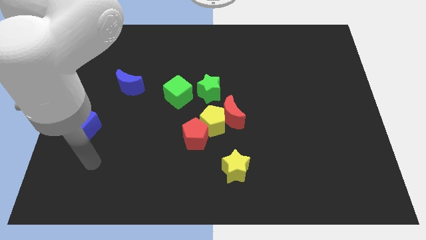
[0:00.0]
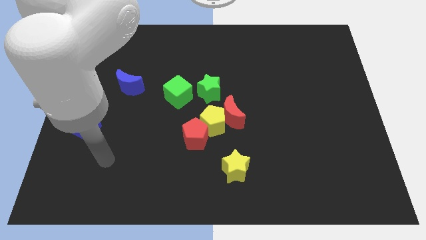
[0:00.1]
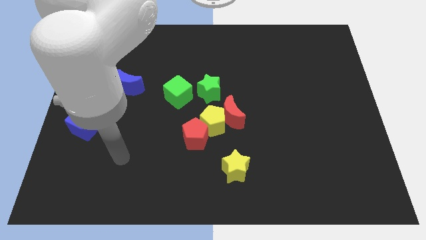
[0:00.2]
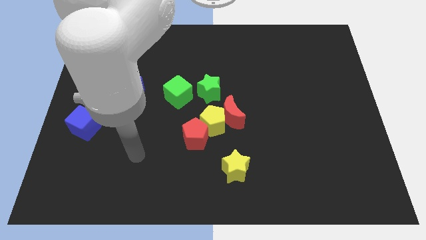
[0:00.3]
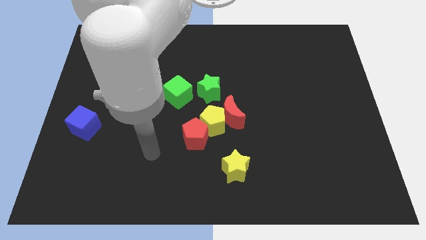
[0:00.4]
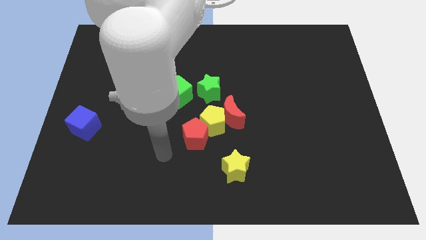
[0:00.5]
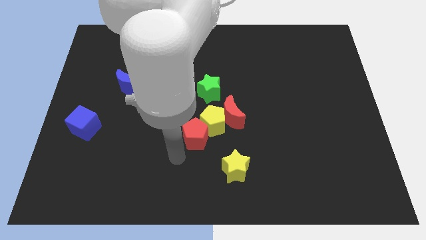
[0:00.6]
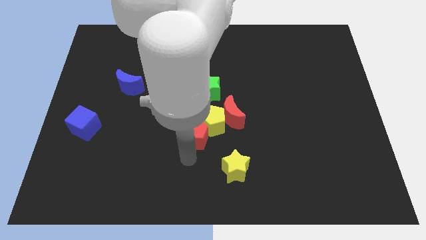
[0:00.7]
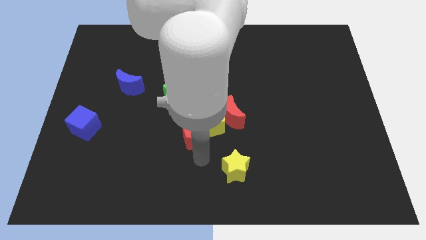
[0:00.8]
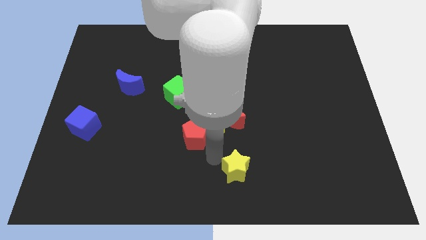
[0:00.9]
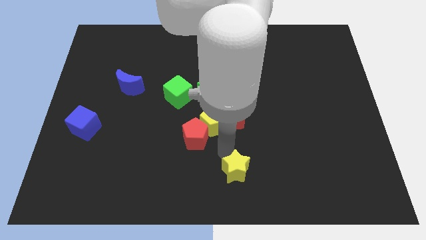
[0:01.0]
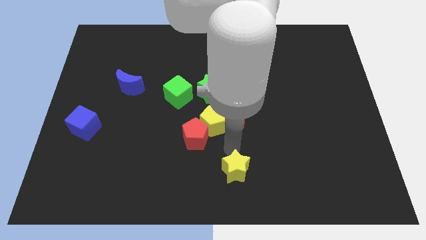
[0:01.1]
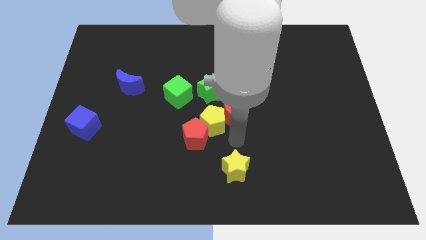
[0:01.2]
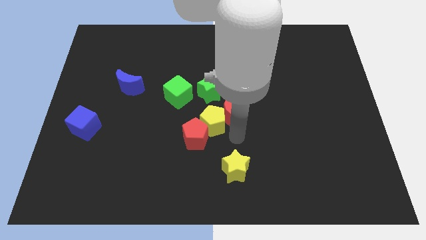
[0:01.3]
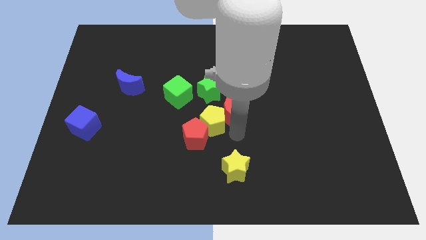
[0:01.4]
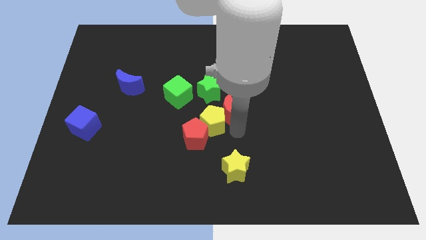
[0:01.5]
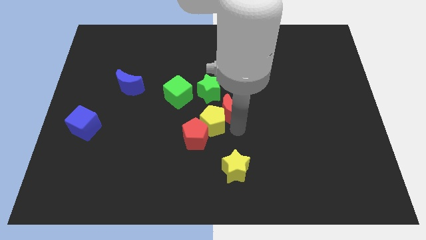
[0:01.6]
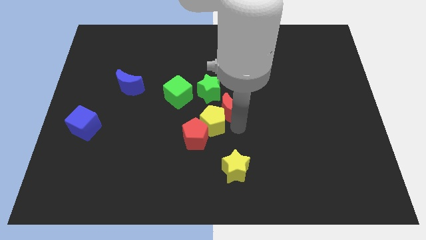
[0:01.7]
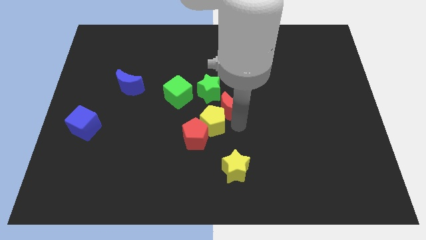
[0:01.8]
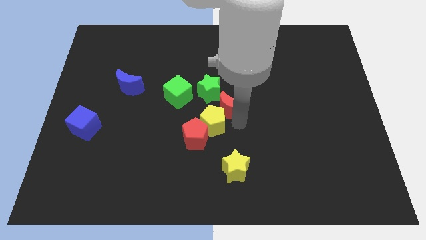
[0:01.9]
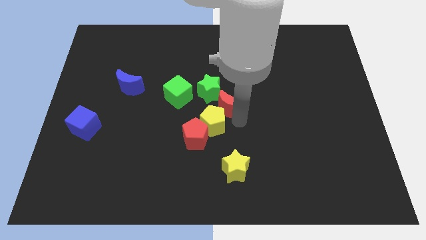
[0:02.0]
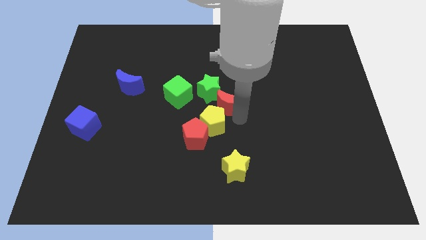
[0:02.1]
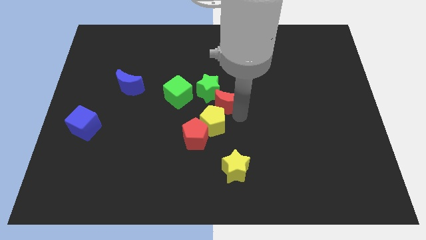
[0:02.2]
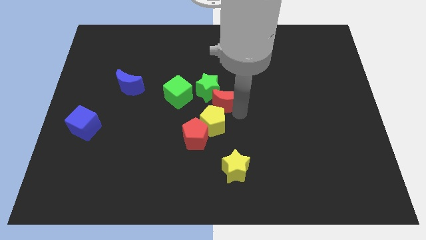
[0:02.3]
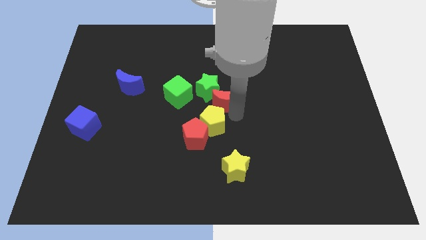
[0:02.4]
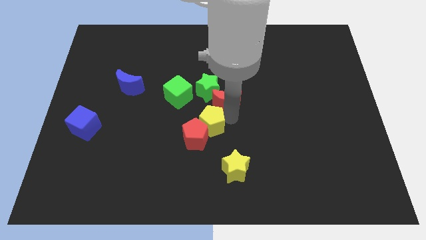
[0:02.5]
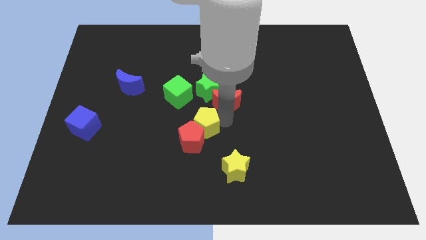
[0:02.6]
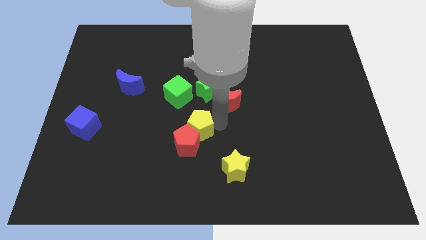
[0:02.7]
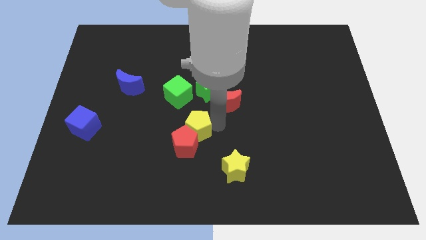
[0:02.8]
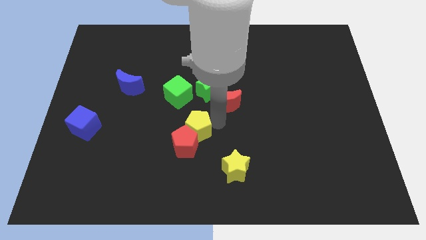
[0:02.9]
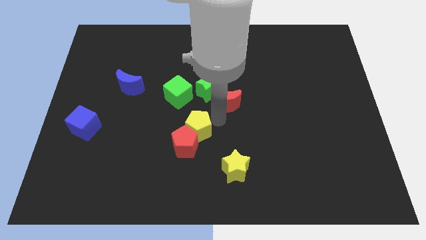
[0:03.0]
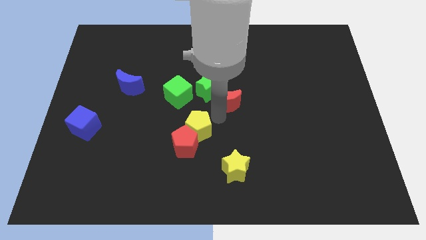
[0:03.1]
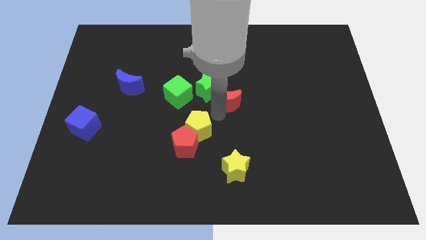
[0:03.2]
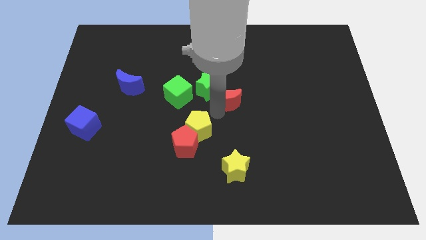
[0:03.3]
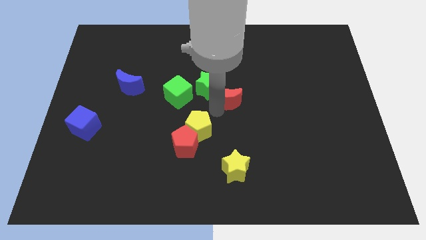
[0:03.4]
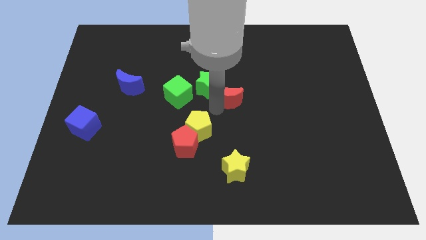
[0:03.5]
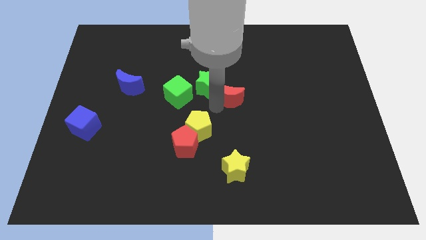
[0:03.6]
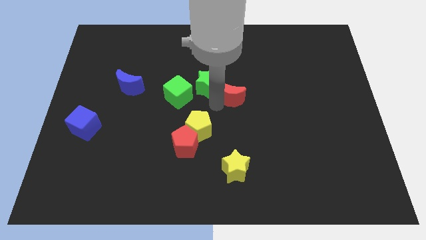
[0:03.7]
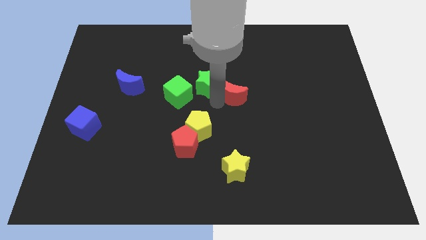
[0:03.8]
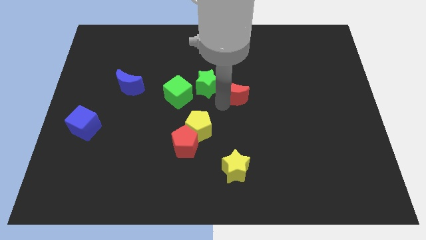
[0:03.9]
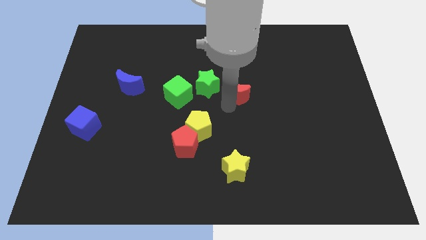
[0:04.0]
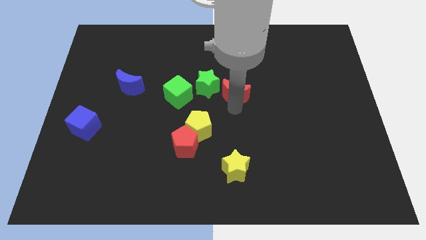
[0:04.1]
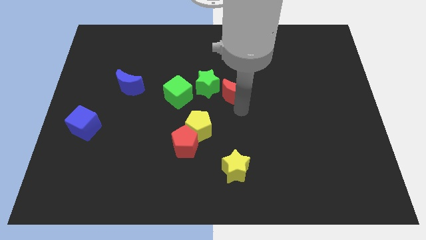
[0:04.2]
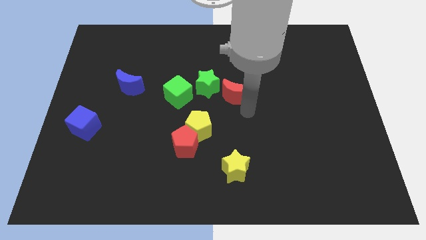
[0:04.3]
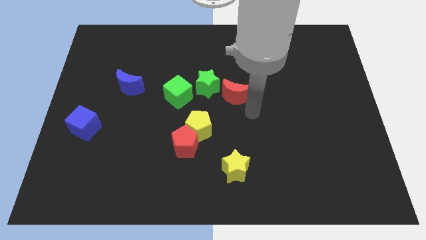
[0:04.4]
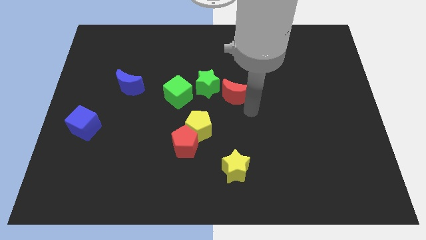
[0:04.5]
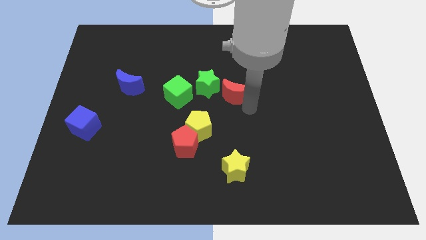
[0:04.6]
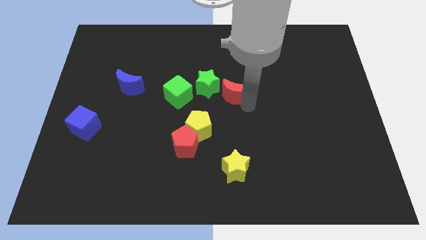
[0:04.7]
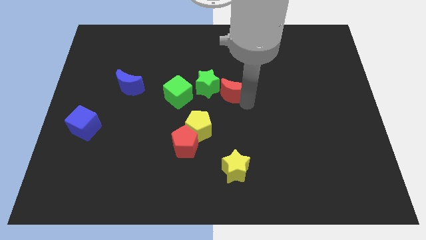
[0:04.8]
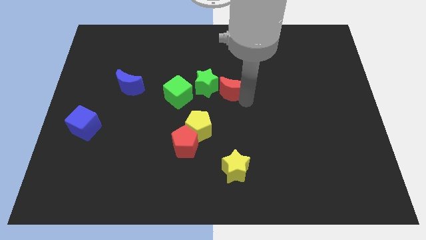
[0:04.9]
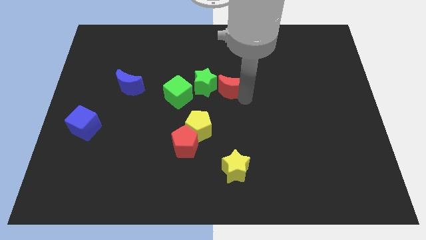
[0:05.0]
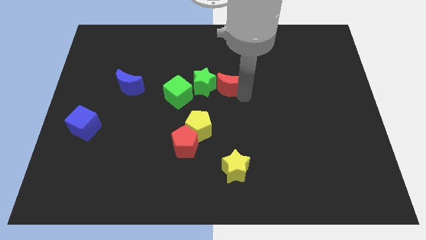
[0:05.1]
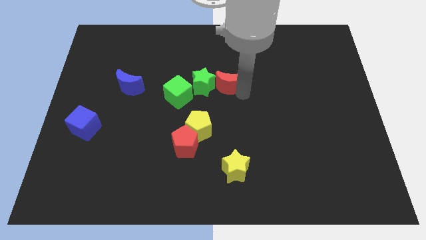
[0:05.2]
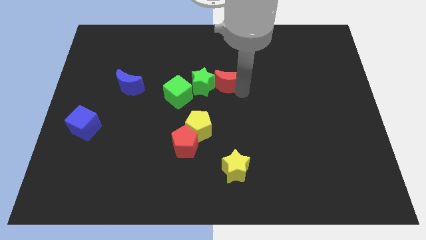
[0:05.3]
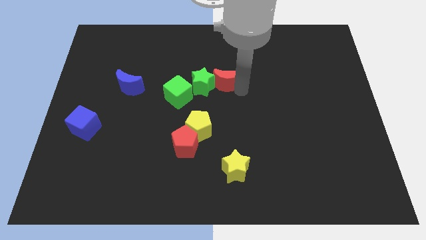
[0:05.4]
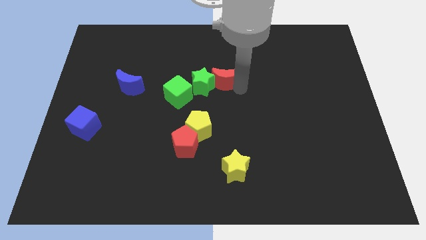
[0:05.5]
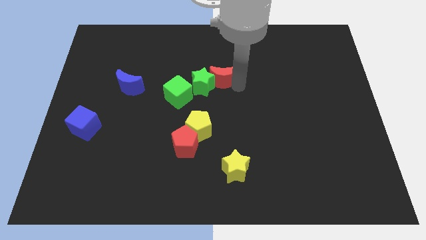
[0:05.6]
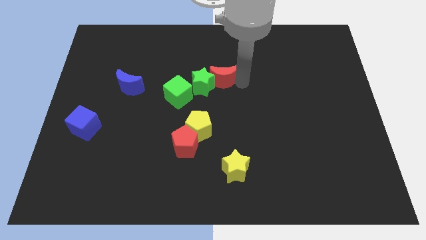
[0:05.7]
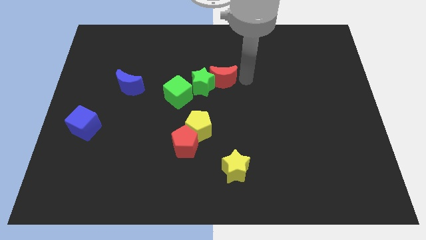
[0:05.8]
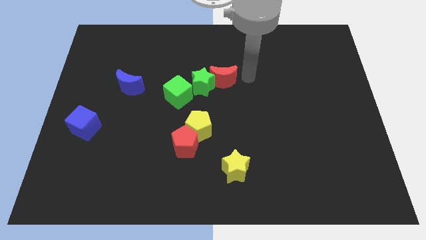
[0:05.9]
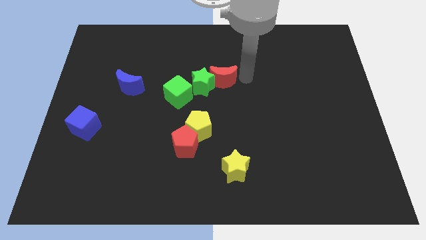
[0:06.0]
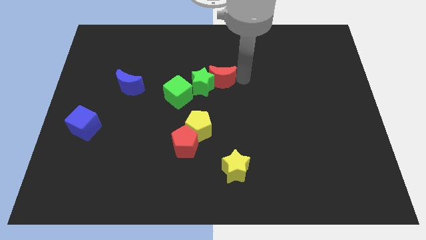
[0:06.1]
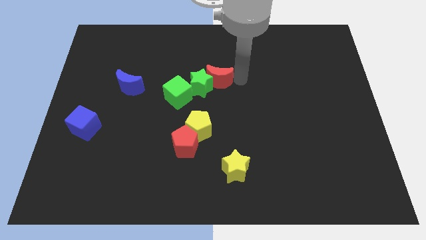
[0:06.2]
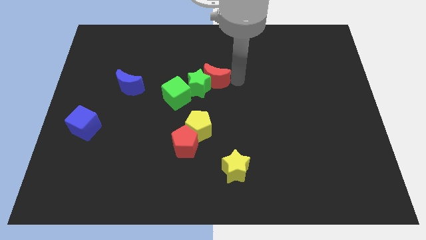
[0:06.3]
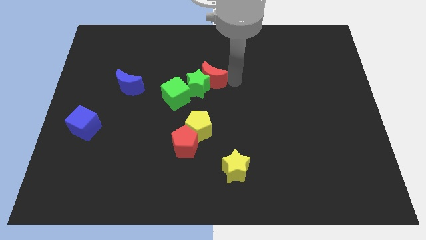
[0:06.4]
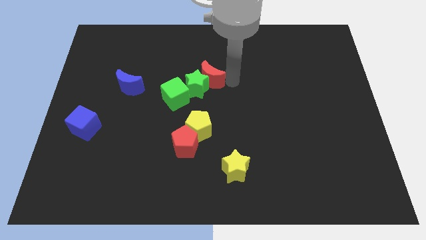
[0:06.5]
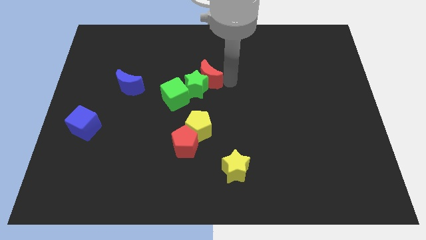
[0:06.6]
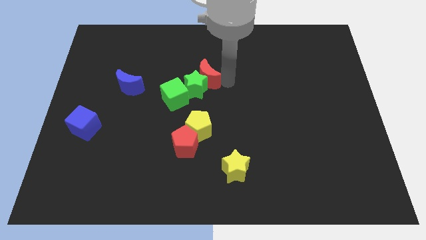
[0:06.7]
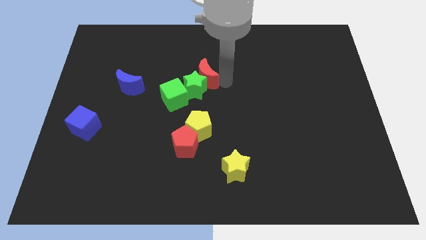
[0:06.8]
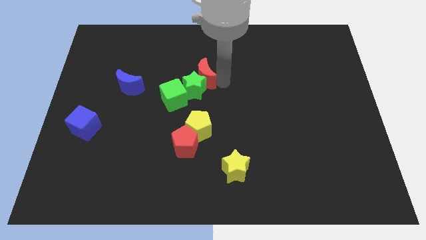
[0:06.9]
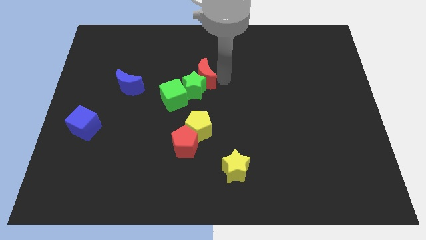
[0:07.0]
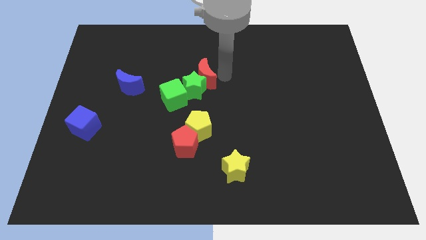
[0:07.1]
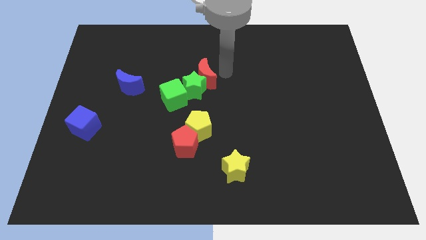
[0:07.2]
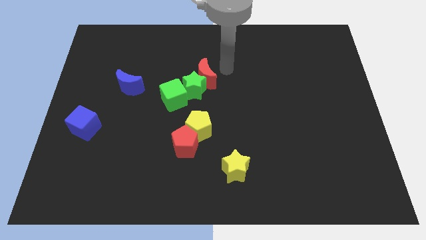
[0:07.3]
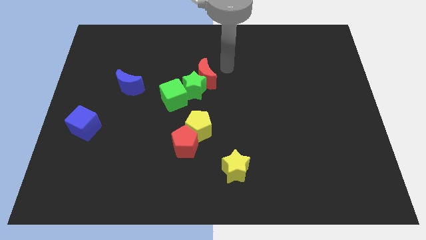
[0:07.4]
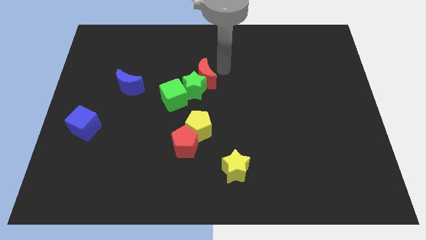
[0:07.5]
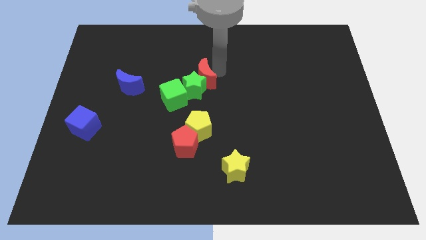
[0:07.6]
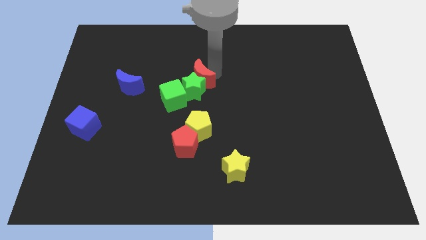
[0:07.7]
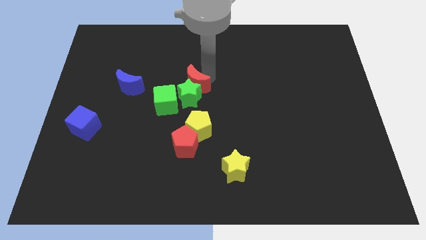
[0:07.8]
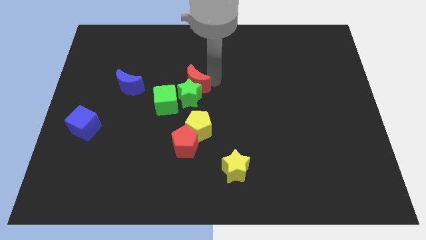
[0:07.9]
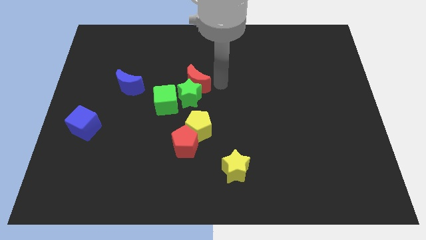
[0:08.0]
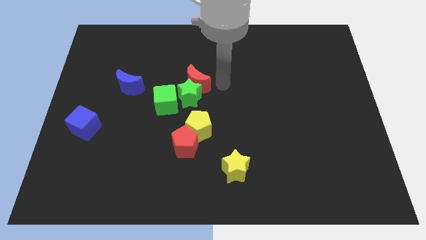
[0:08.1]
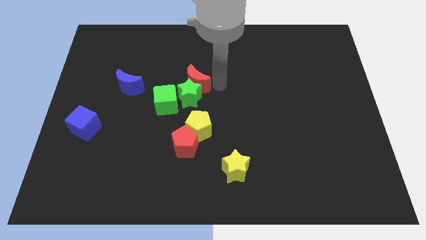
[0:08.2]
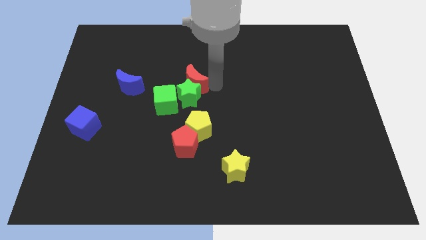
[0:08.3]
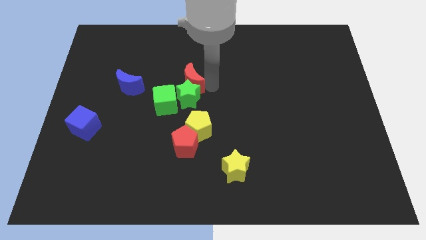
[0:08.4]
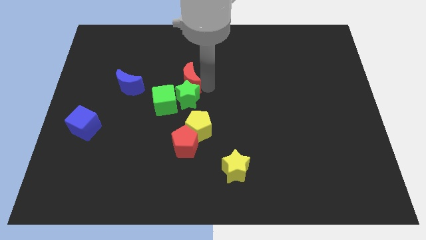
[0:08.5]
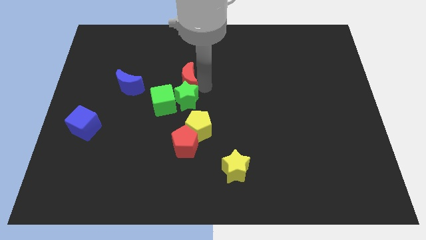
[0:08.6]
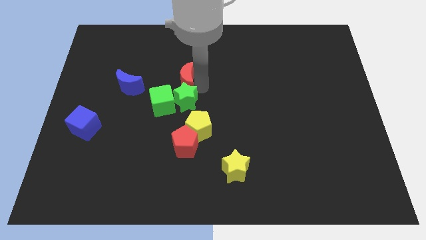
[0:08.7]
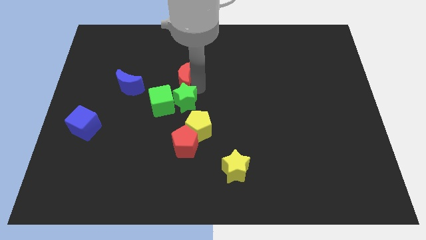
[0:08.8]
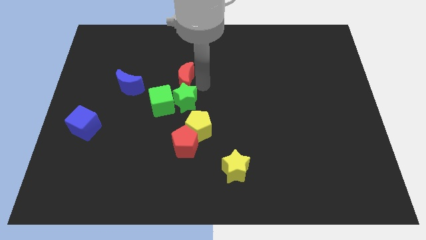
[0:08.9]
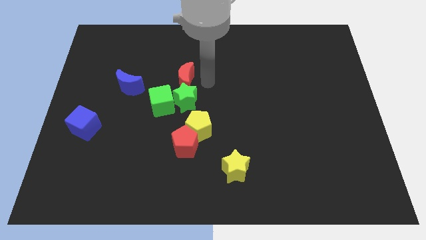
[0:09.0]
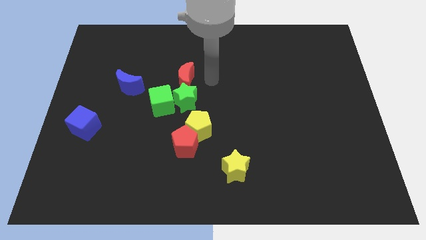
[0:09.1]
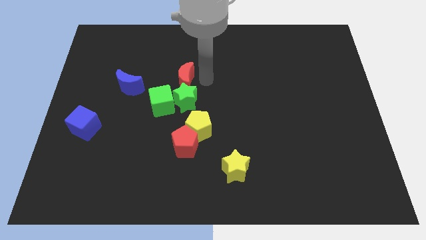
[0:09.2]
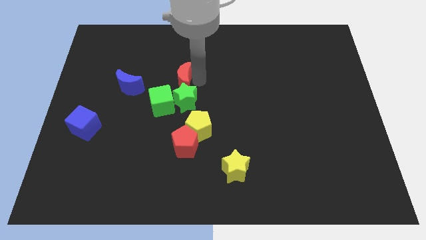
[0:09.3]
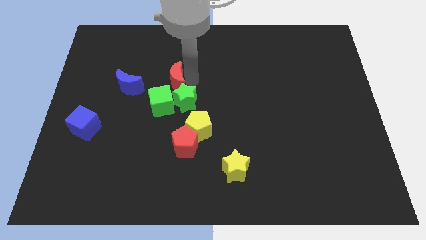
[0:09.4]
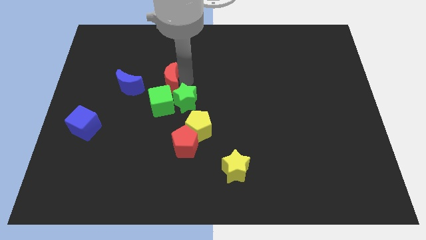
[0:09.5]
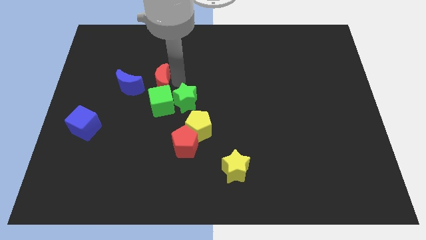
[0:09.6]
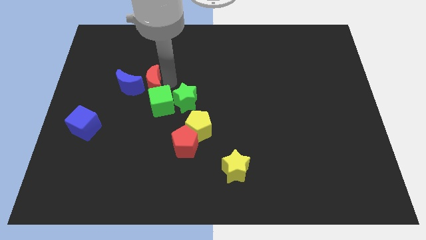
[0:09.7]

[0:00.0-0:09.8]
push the red moon close to the blue moon
